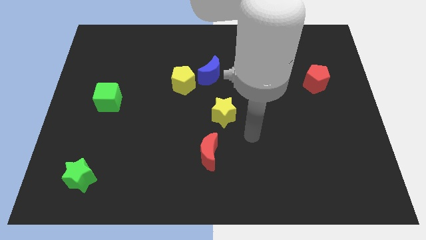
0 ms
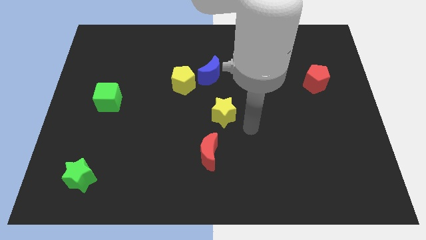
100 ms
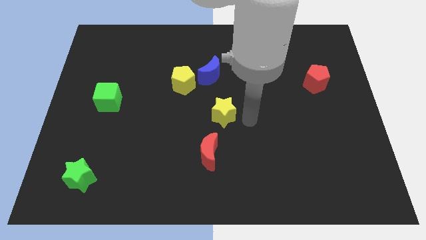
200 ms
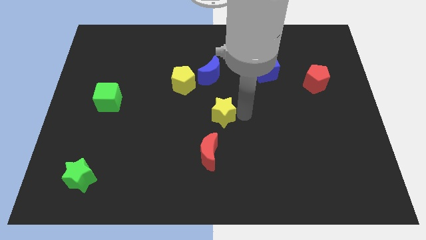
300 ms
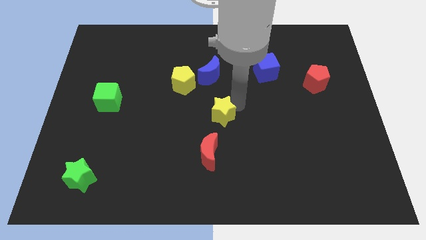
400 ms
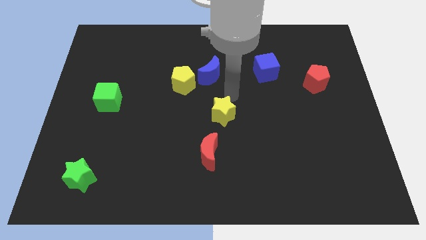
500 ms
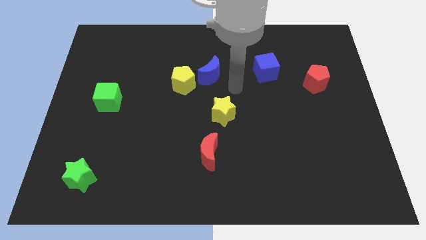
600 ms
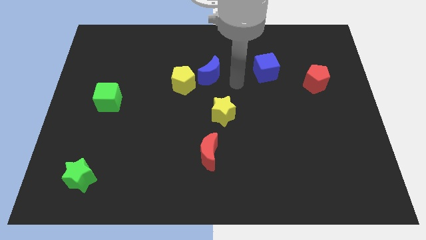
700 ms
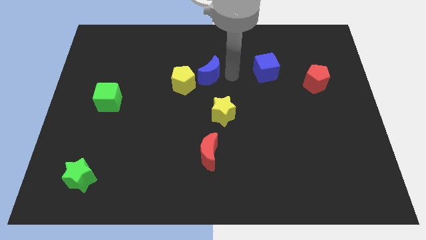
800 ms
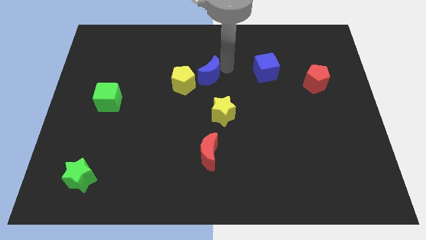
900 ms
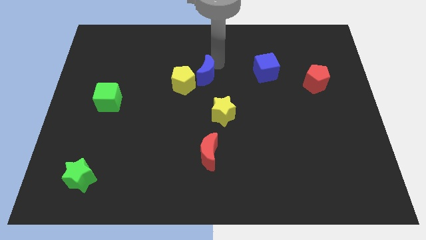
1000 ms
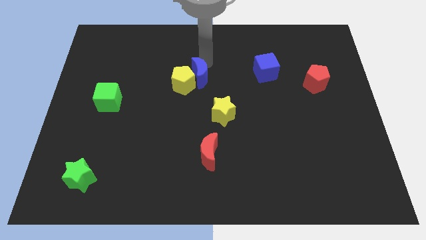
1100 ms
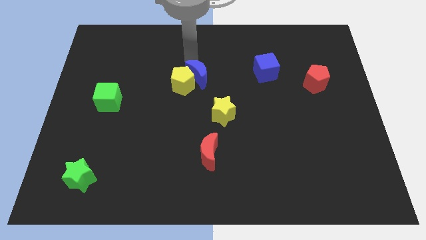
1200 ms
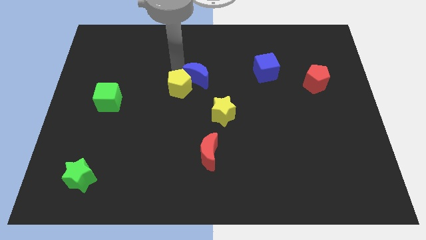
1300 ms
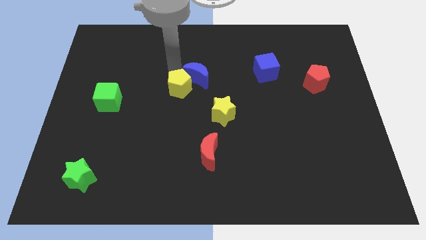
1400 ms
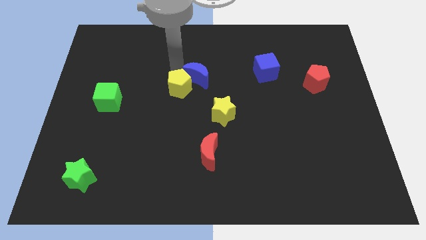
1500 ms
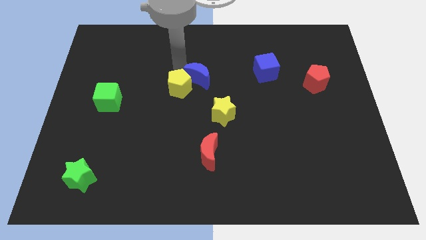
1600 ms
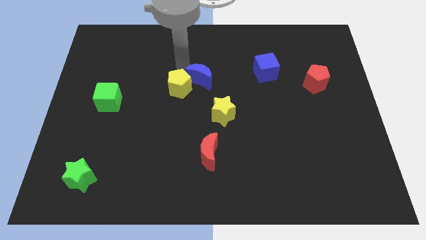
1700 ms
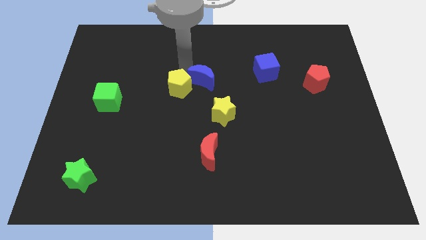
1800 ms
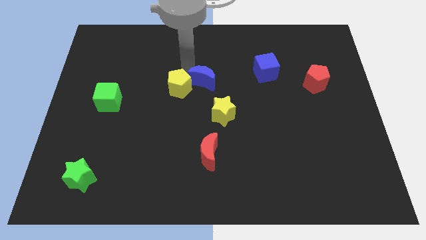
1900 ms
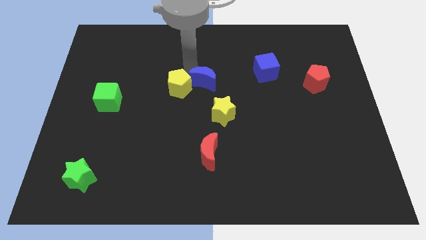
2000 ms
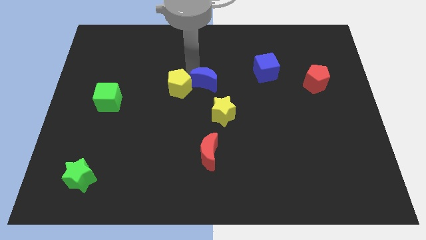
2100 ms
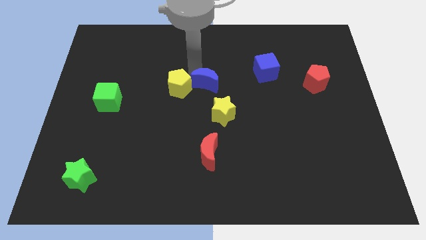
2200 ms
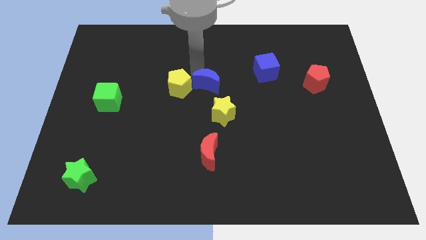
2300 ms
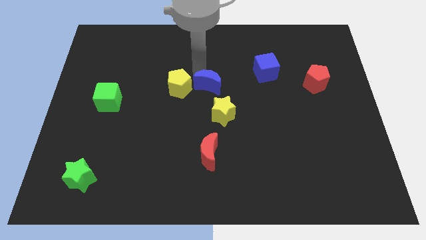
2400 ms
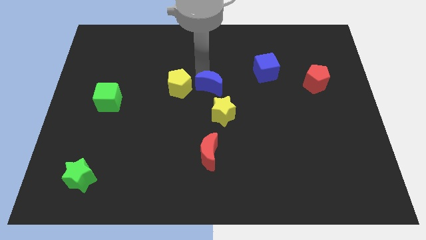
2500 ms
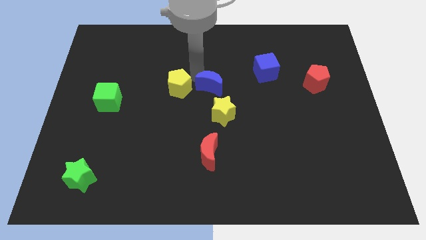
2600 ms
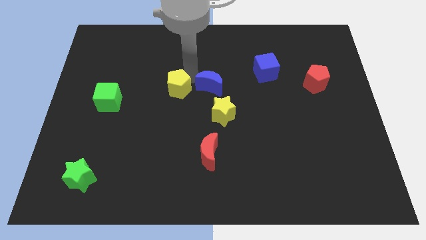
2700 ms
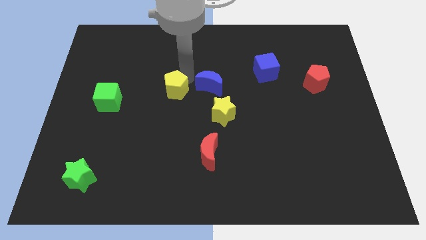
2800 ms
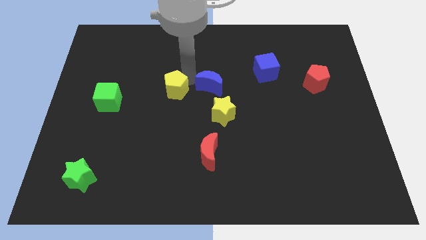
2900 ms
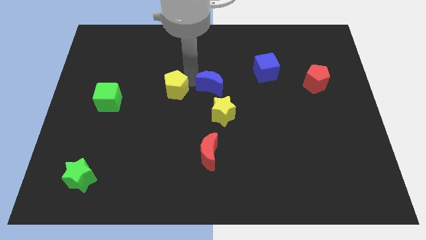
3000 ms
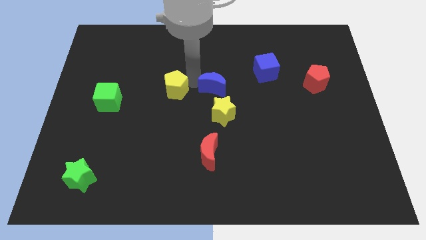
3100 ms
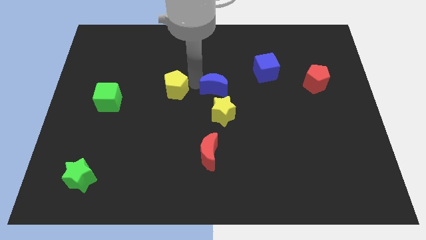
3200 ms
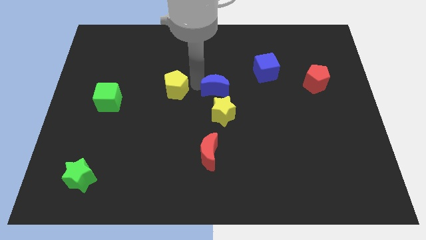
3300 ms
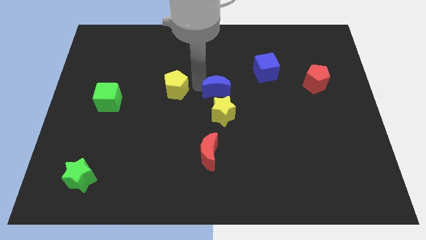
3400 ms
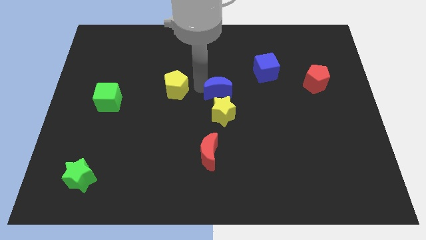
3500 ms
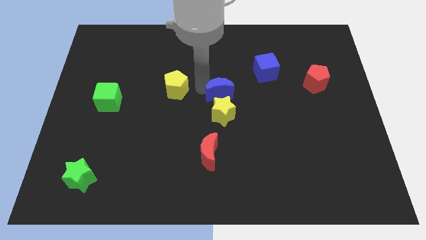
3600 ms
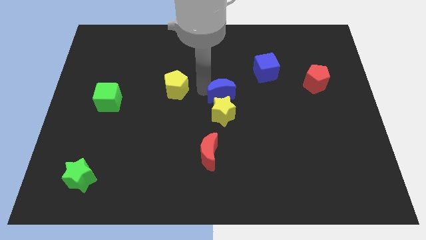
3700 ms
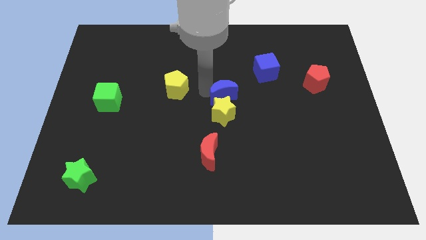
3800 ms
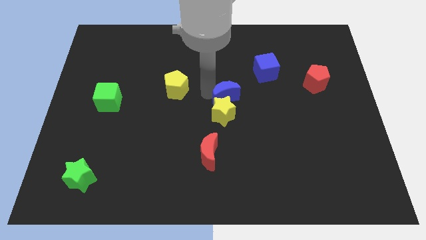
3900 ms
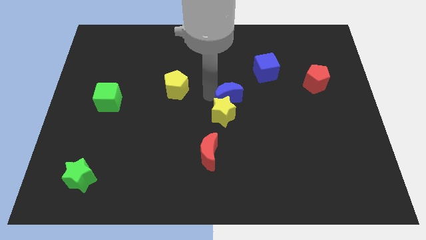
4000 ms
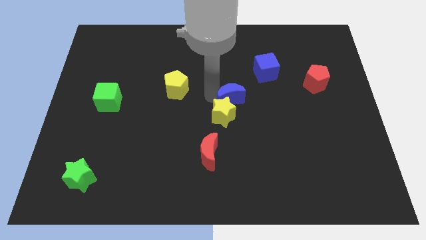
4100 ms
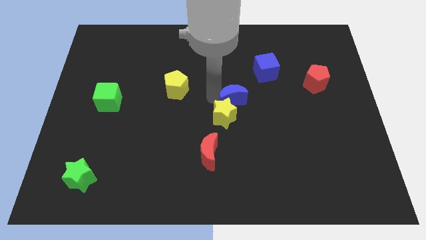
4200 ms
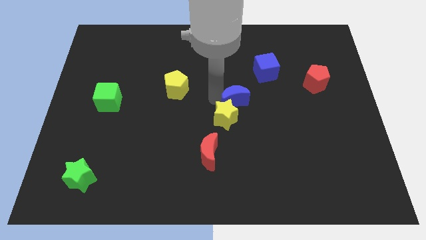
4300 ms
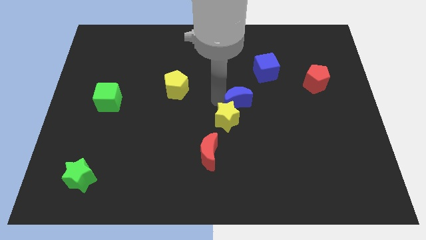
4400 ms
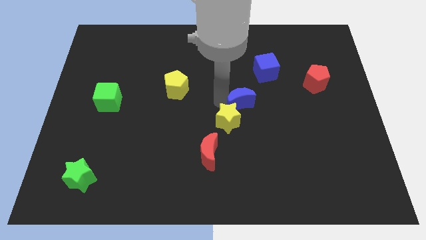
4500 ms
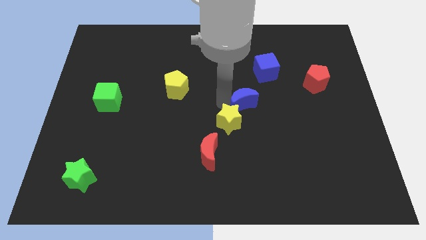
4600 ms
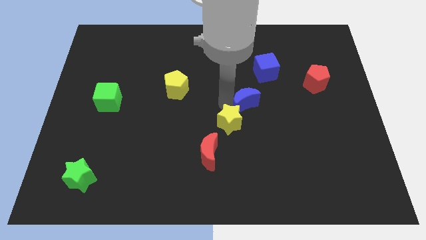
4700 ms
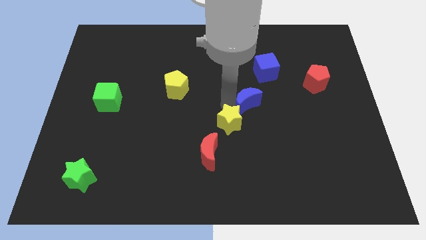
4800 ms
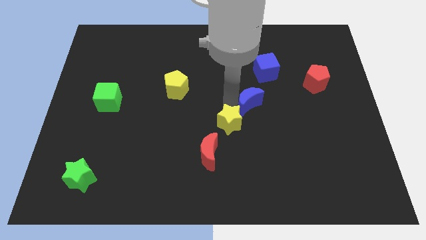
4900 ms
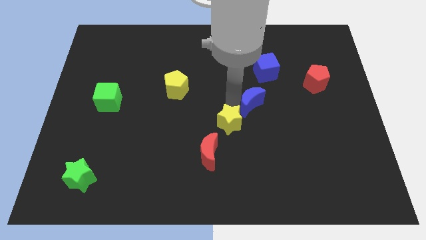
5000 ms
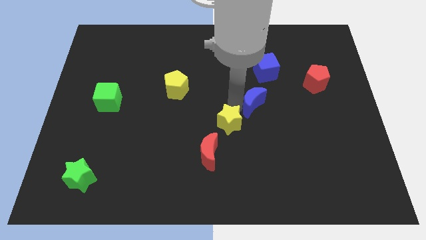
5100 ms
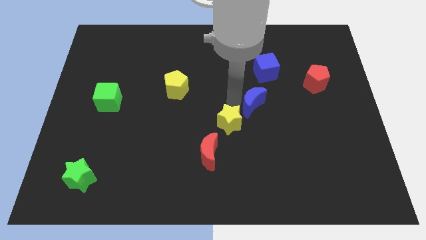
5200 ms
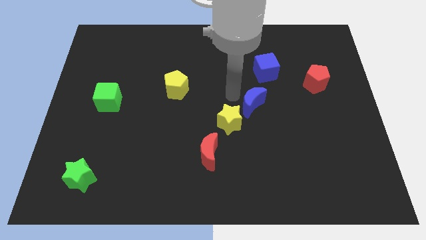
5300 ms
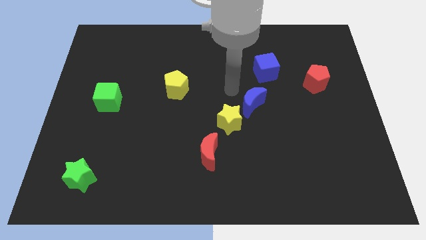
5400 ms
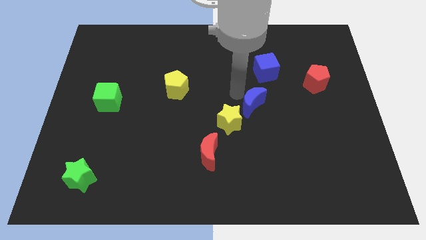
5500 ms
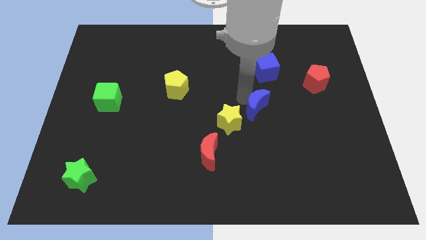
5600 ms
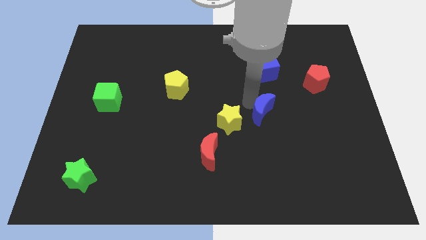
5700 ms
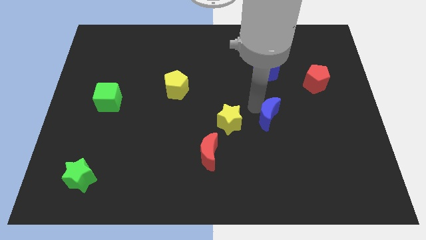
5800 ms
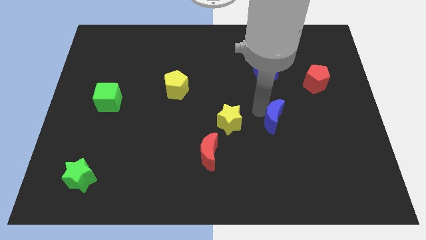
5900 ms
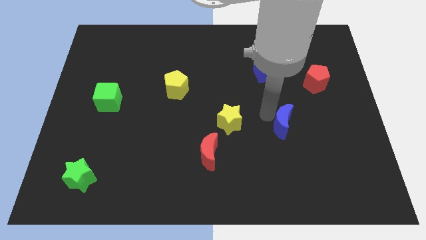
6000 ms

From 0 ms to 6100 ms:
slide the blue moon diagonally down and right

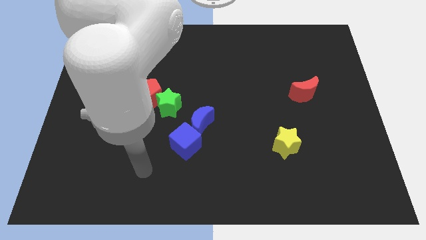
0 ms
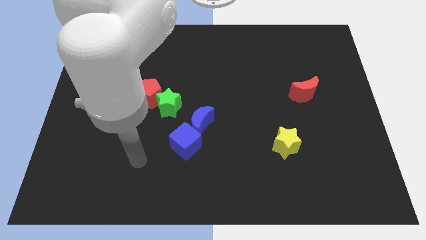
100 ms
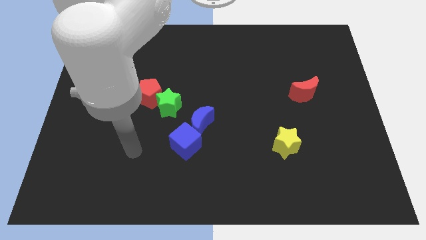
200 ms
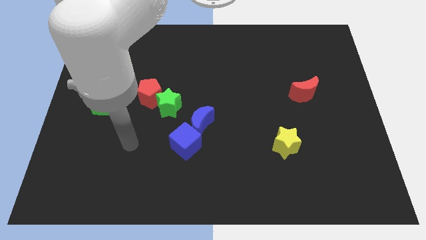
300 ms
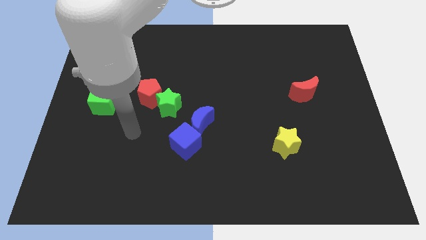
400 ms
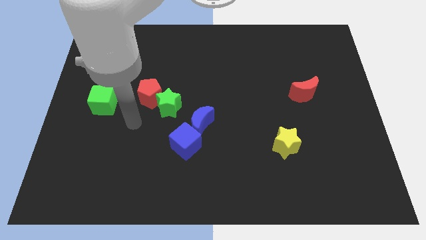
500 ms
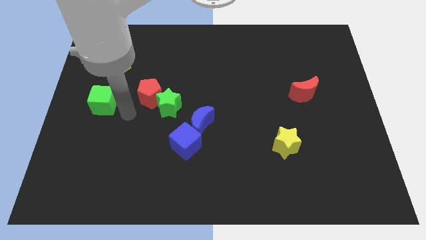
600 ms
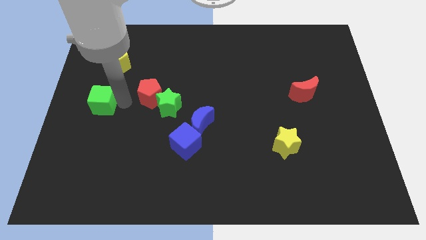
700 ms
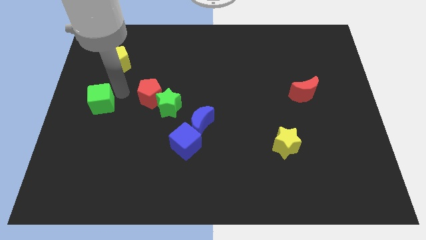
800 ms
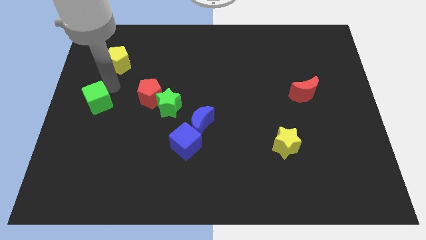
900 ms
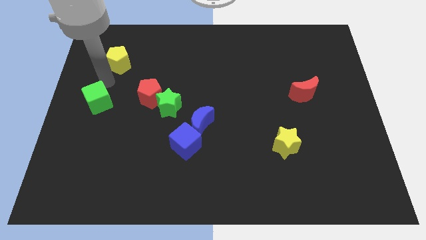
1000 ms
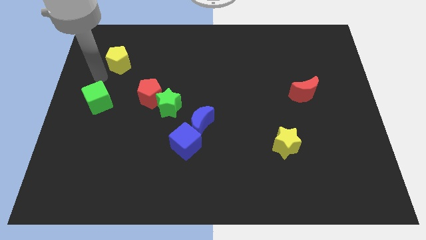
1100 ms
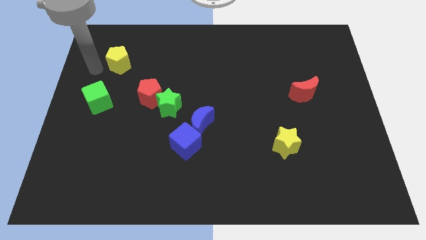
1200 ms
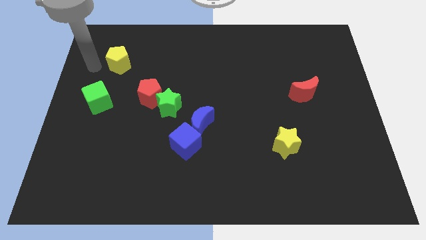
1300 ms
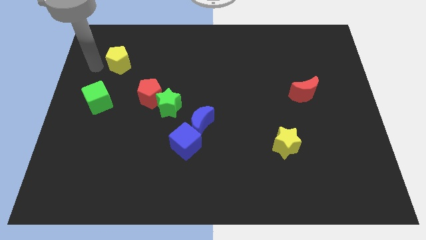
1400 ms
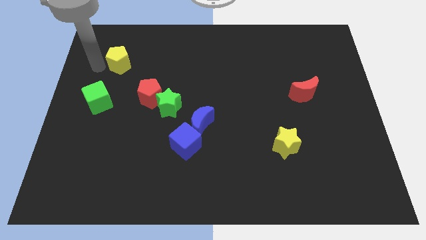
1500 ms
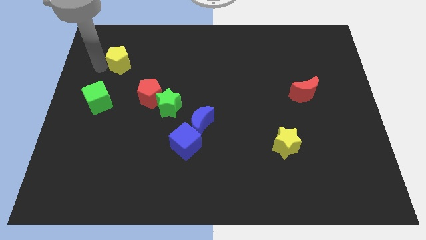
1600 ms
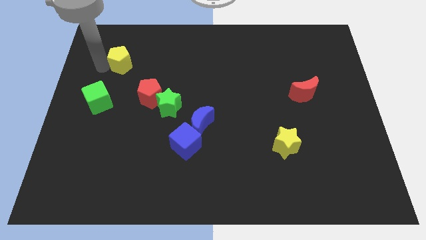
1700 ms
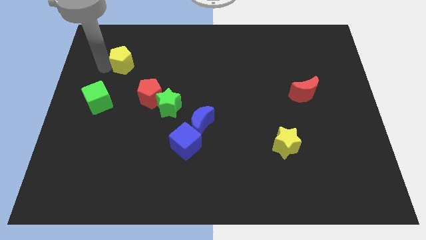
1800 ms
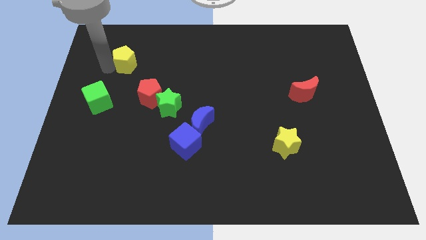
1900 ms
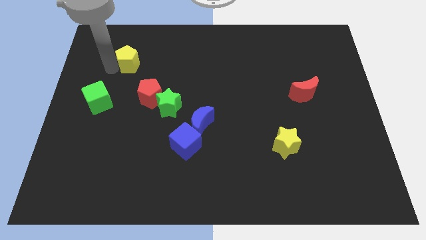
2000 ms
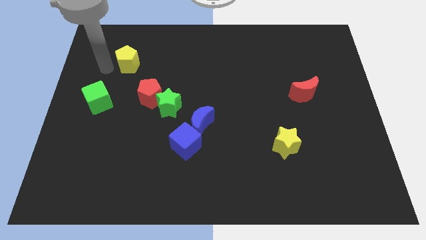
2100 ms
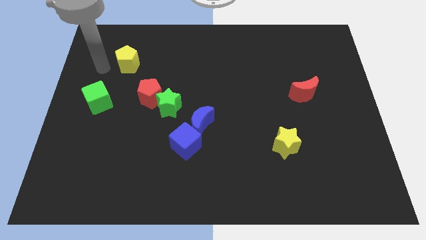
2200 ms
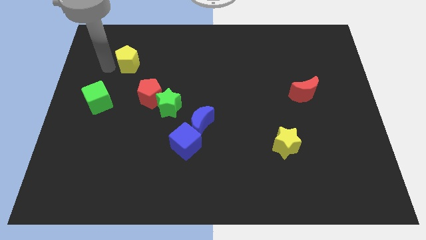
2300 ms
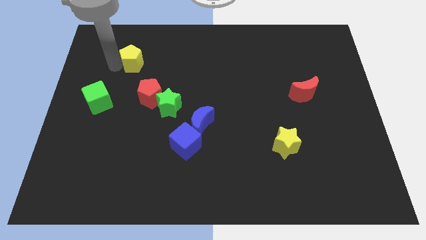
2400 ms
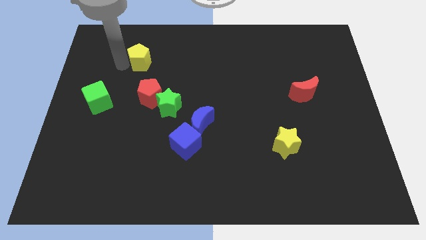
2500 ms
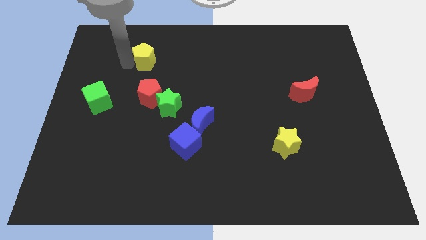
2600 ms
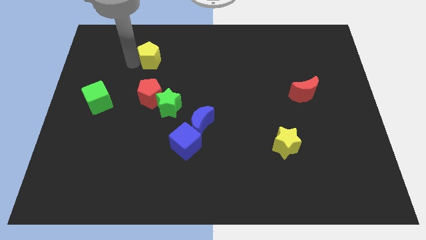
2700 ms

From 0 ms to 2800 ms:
push the yellow pentagon a little bit right
